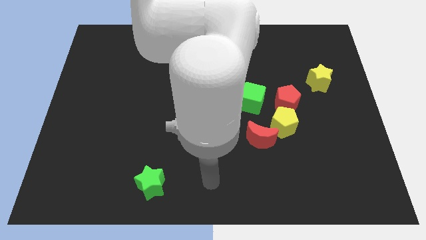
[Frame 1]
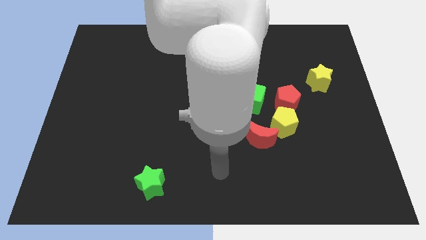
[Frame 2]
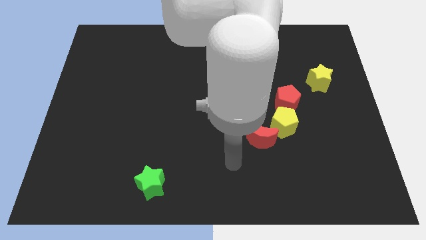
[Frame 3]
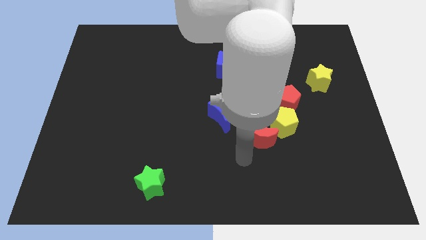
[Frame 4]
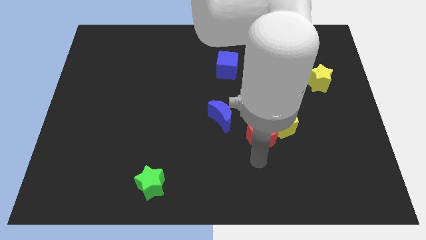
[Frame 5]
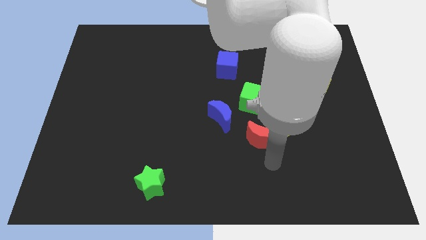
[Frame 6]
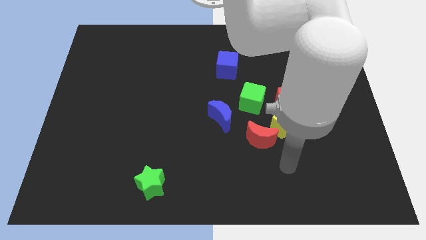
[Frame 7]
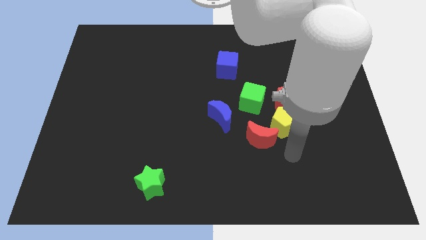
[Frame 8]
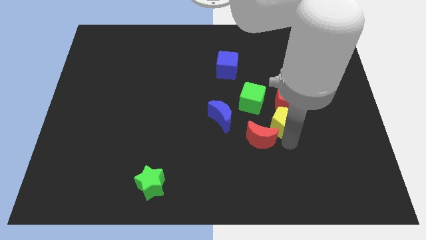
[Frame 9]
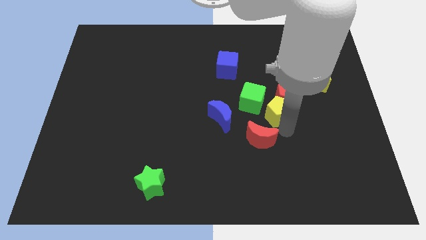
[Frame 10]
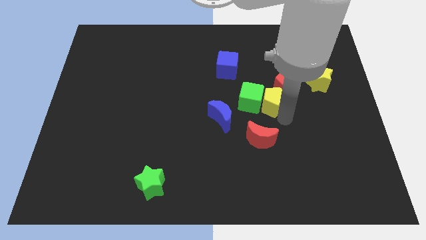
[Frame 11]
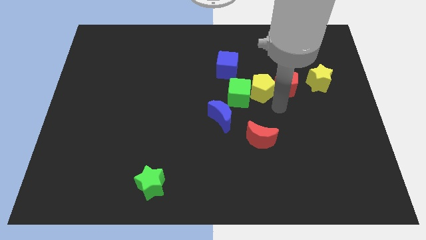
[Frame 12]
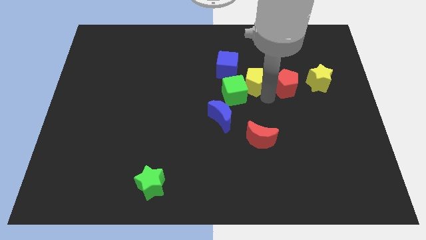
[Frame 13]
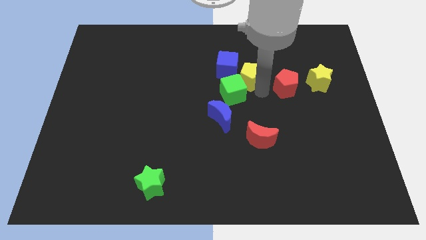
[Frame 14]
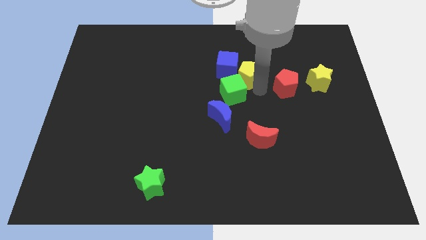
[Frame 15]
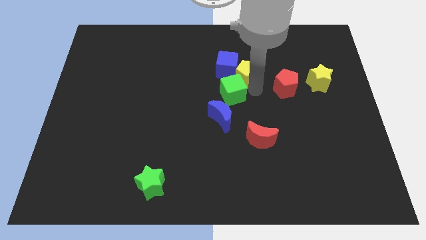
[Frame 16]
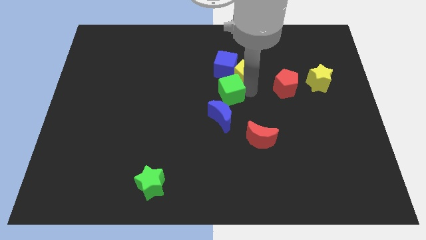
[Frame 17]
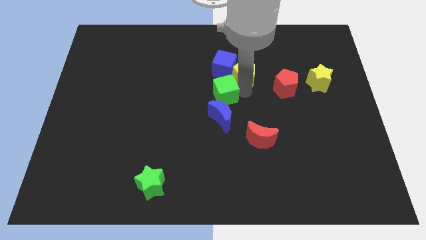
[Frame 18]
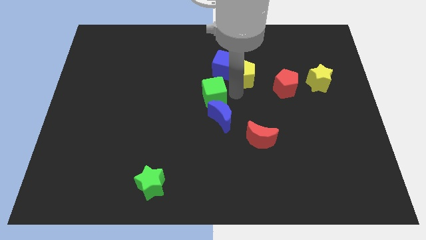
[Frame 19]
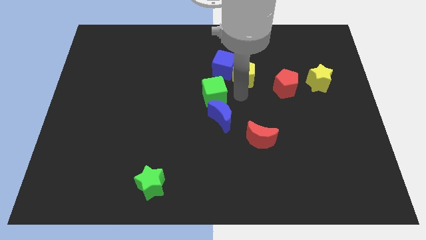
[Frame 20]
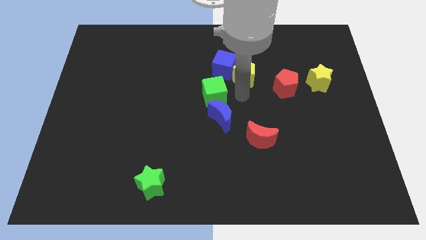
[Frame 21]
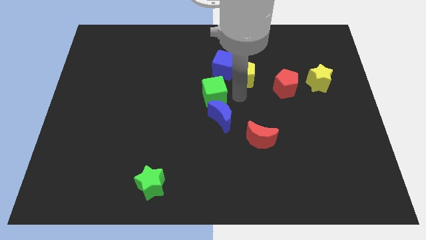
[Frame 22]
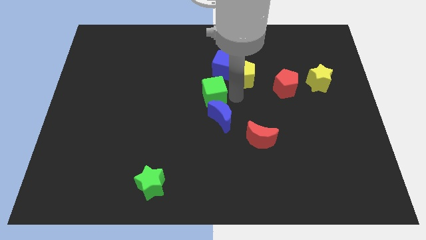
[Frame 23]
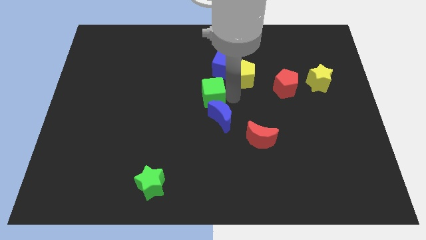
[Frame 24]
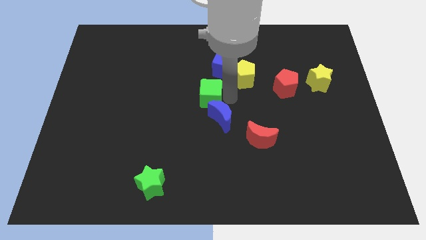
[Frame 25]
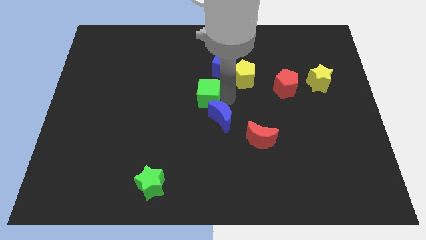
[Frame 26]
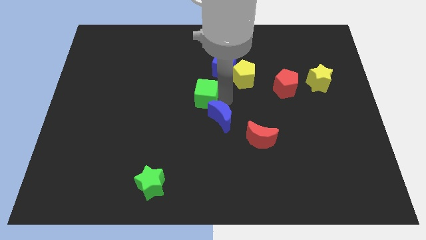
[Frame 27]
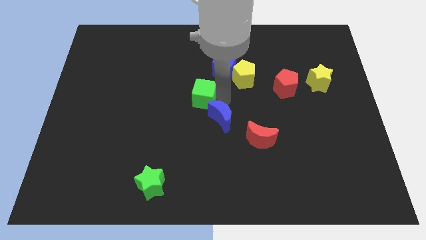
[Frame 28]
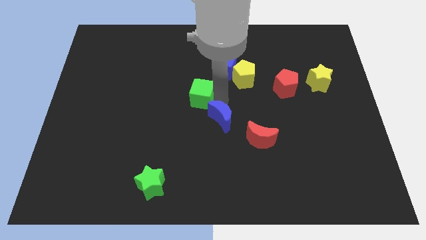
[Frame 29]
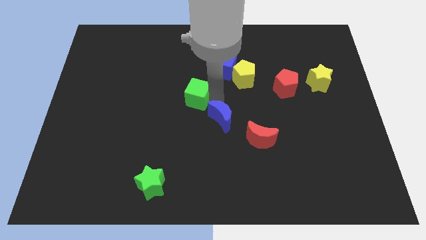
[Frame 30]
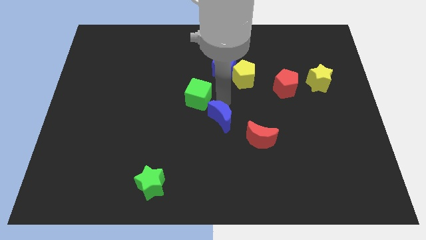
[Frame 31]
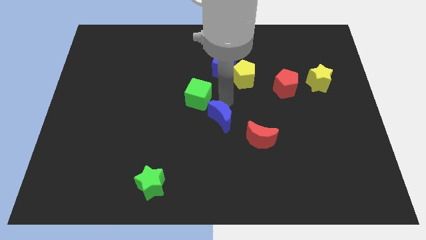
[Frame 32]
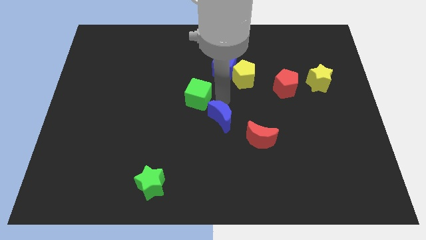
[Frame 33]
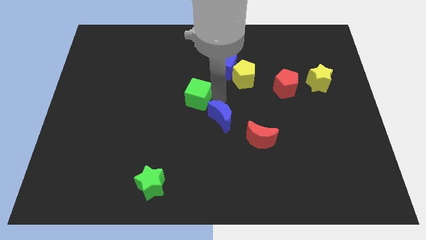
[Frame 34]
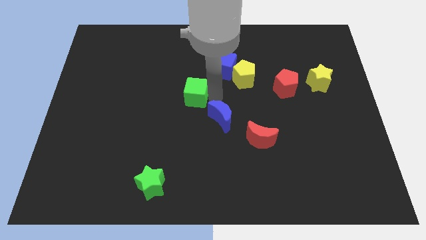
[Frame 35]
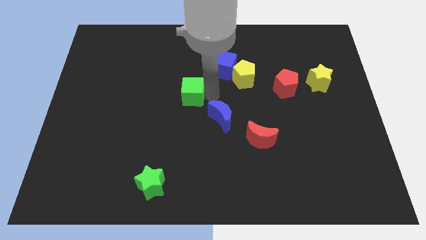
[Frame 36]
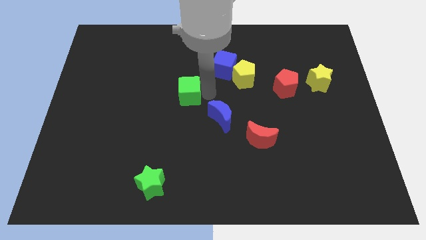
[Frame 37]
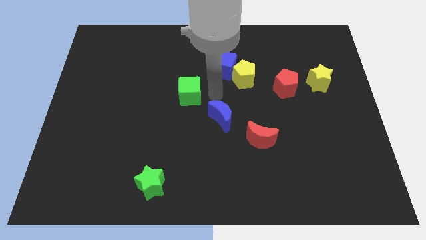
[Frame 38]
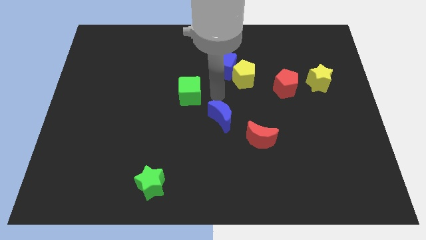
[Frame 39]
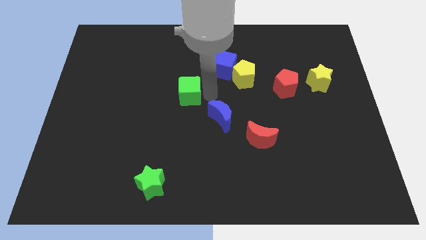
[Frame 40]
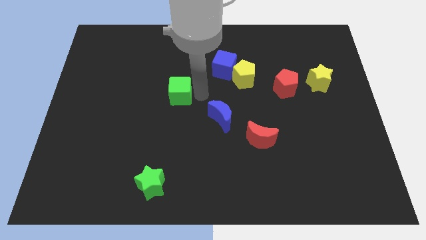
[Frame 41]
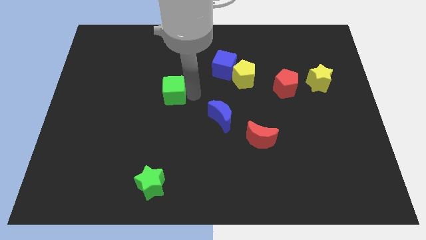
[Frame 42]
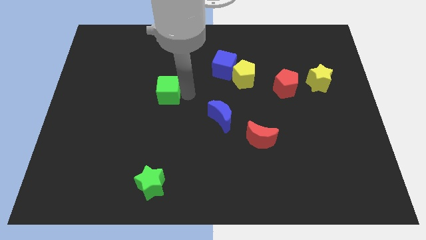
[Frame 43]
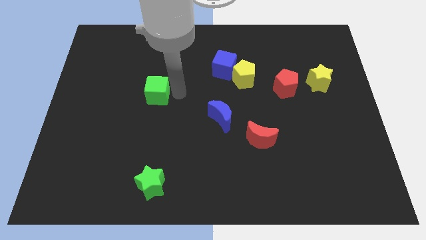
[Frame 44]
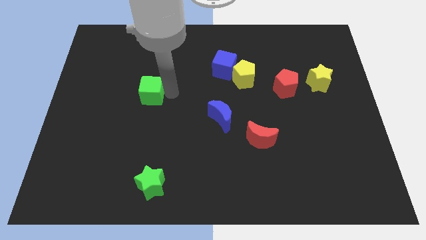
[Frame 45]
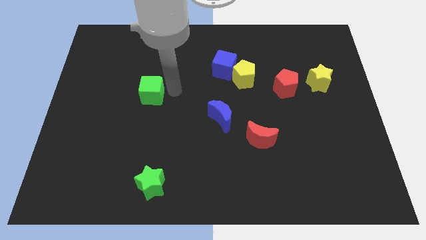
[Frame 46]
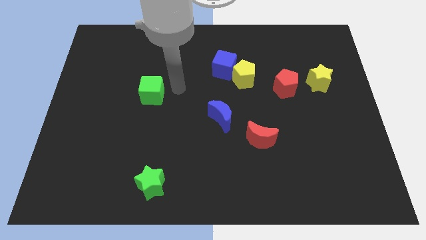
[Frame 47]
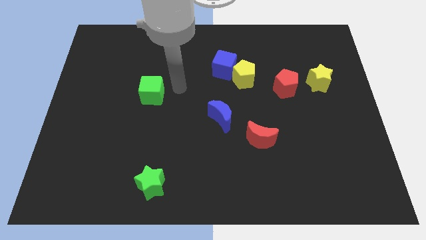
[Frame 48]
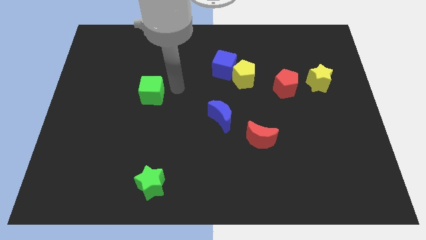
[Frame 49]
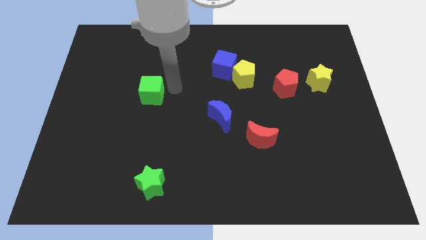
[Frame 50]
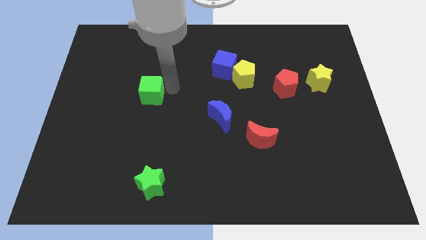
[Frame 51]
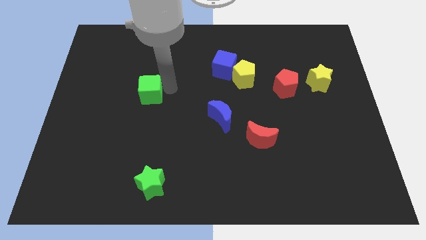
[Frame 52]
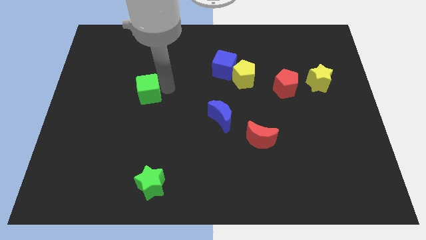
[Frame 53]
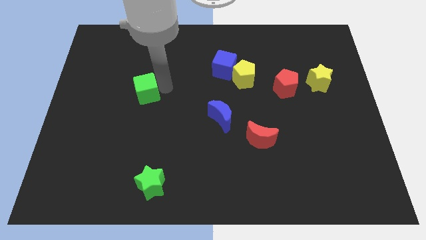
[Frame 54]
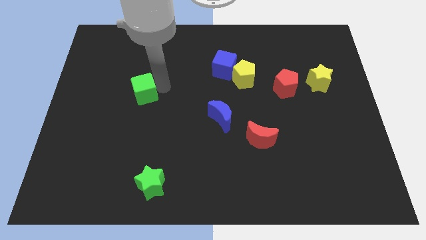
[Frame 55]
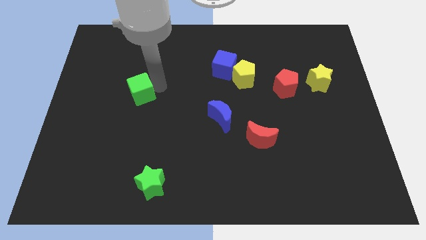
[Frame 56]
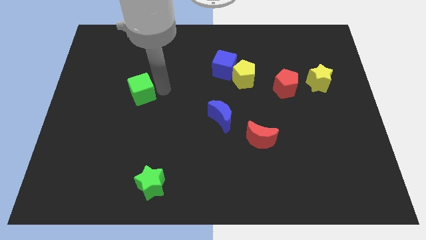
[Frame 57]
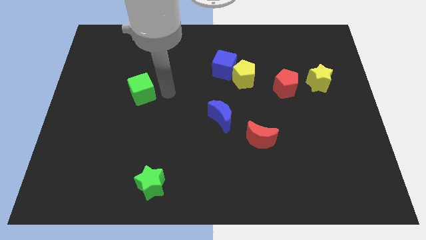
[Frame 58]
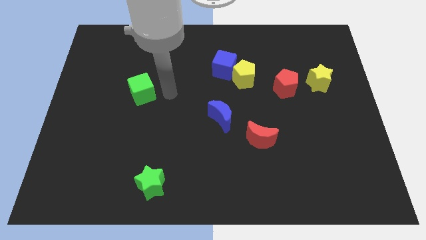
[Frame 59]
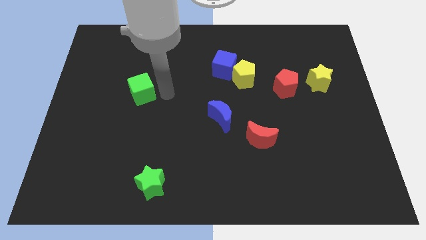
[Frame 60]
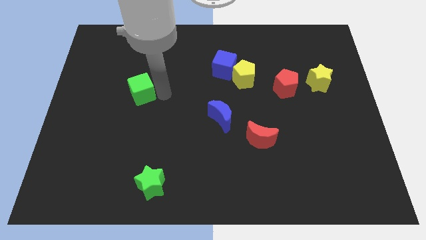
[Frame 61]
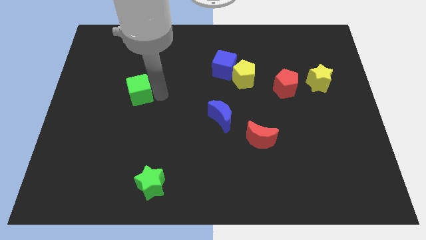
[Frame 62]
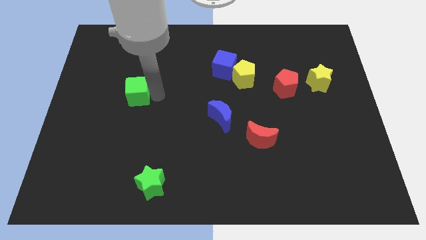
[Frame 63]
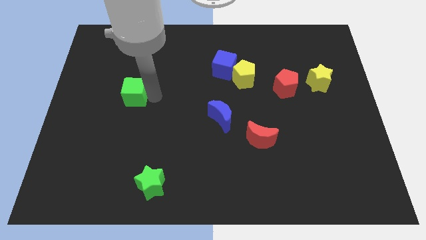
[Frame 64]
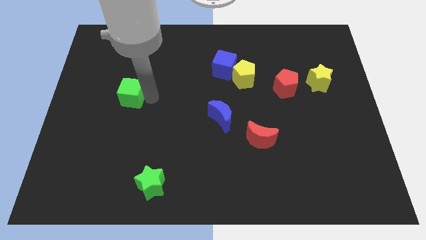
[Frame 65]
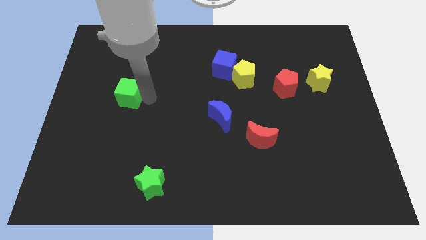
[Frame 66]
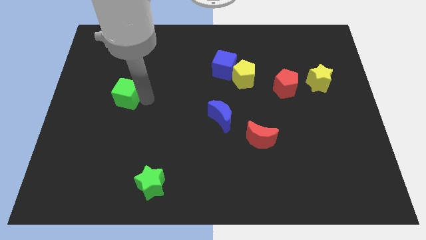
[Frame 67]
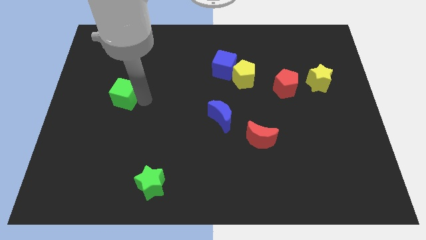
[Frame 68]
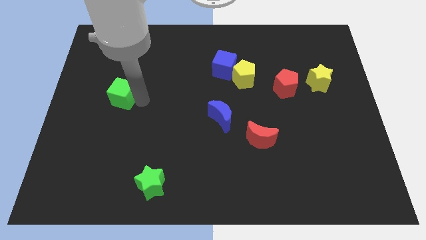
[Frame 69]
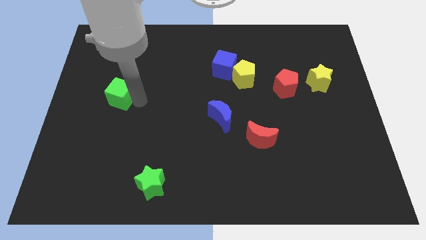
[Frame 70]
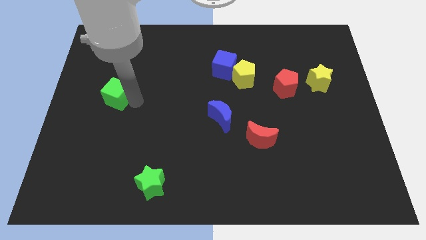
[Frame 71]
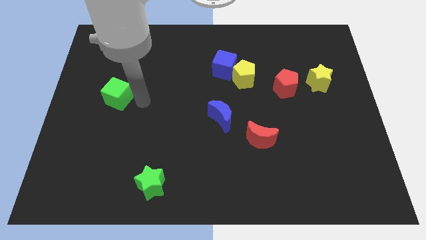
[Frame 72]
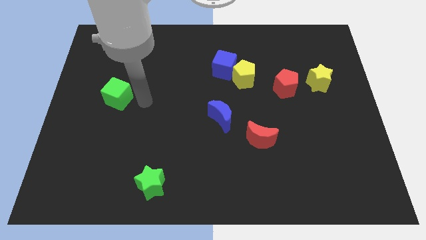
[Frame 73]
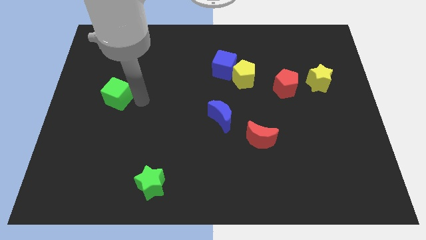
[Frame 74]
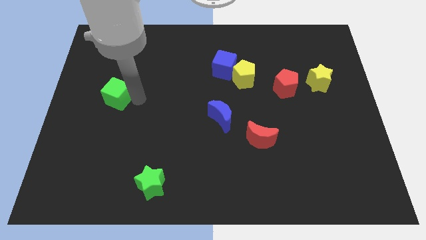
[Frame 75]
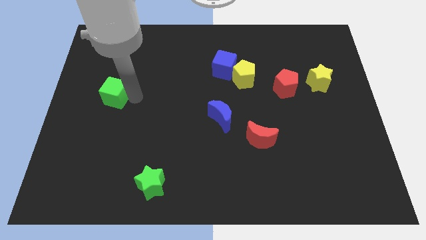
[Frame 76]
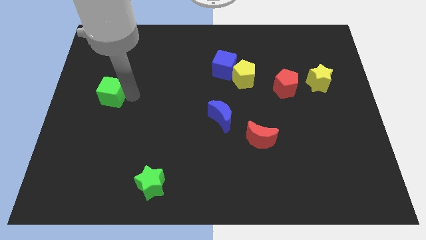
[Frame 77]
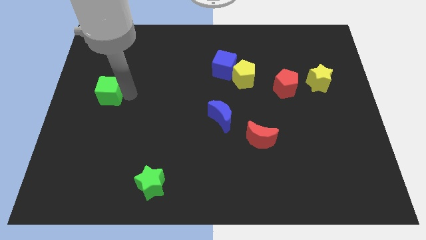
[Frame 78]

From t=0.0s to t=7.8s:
slide the green cube to the left side
